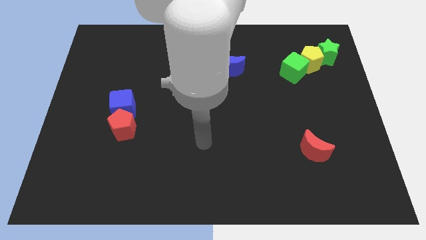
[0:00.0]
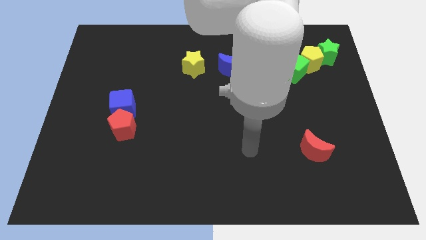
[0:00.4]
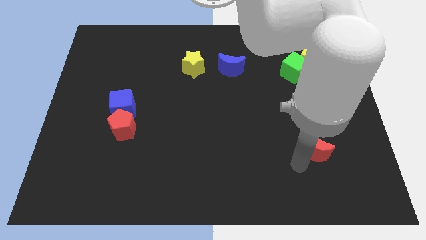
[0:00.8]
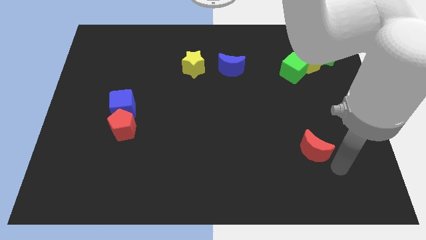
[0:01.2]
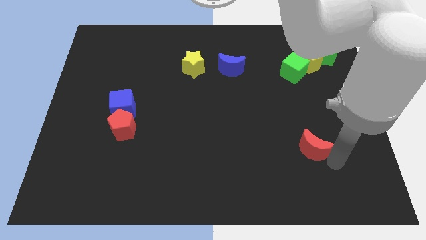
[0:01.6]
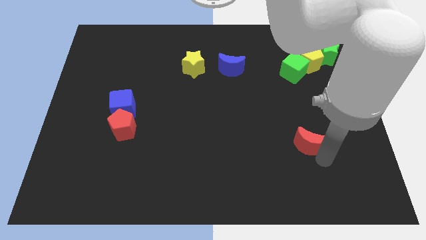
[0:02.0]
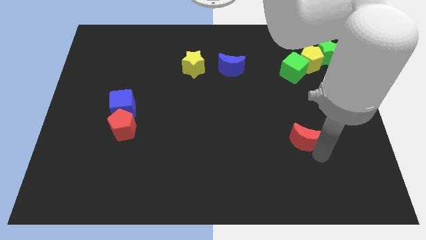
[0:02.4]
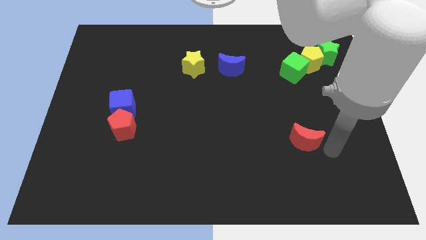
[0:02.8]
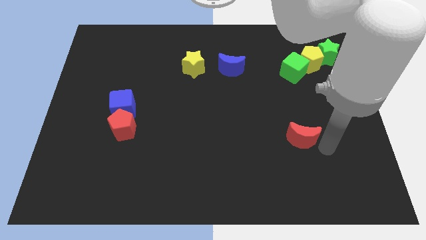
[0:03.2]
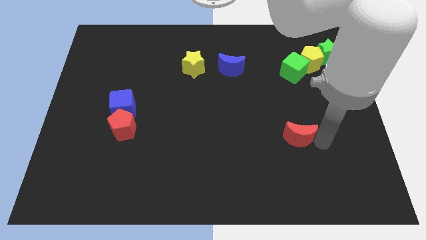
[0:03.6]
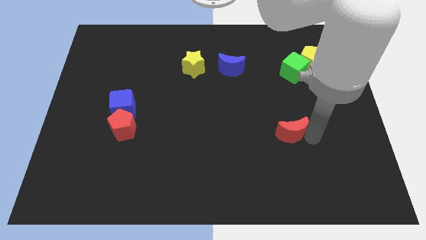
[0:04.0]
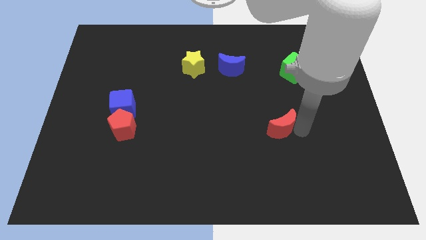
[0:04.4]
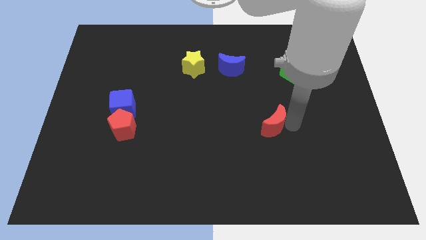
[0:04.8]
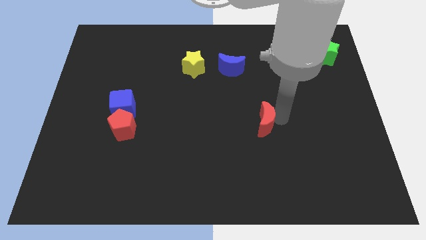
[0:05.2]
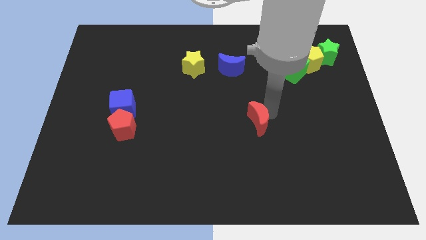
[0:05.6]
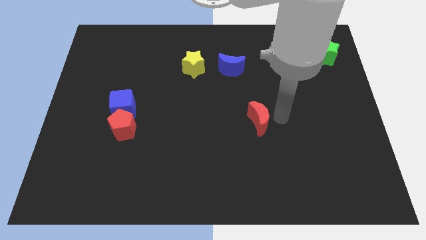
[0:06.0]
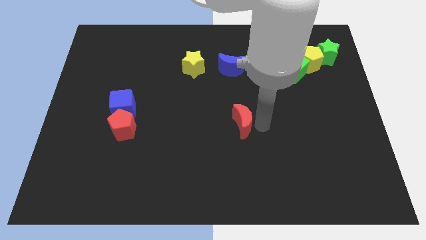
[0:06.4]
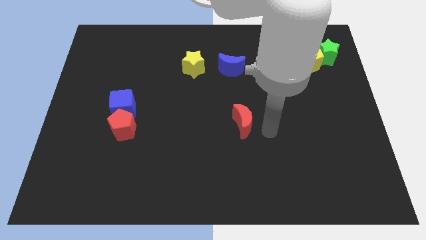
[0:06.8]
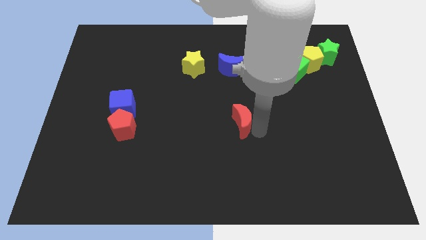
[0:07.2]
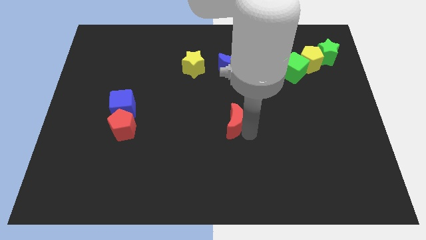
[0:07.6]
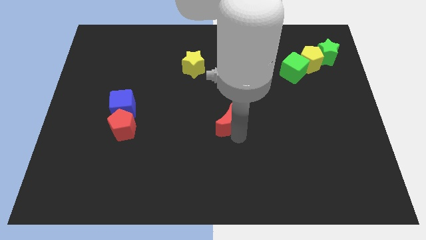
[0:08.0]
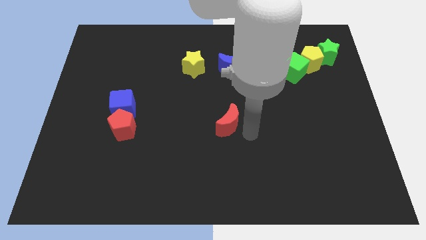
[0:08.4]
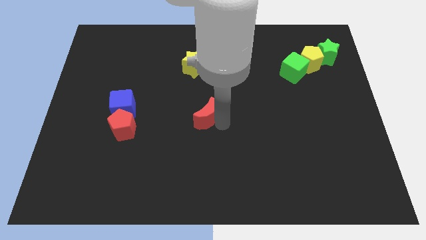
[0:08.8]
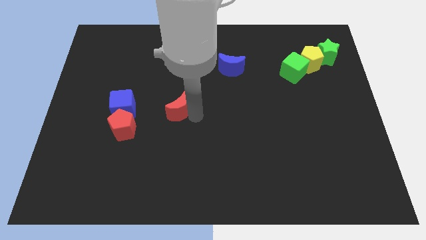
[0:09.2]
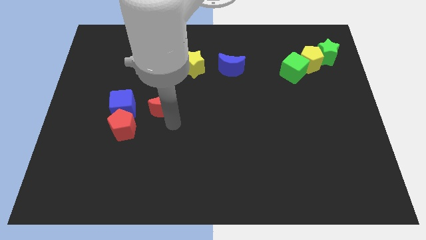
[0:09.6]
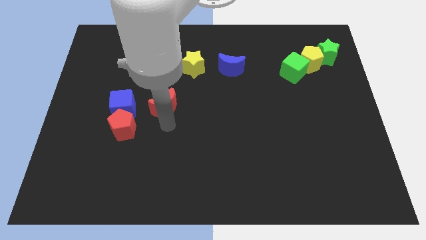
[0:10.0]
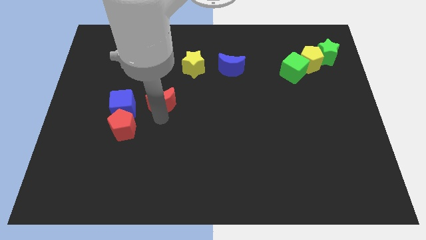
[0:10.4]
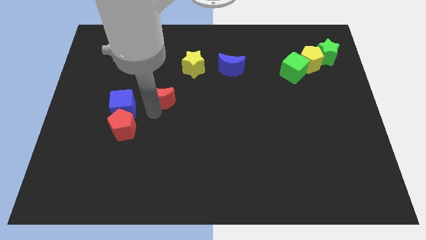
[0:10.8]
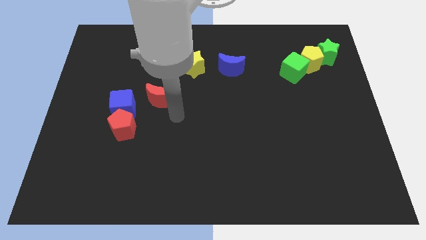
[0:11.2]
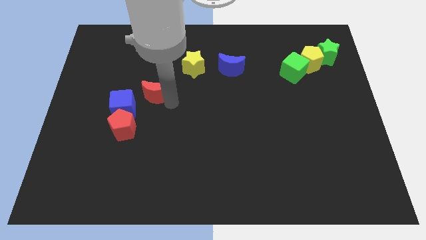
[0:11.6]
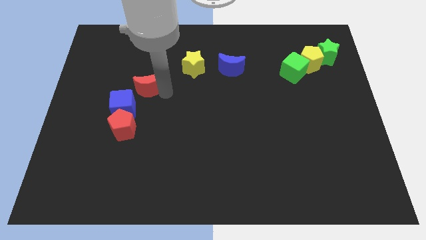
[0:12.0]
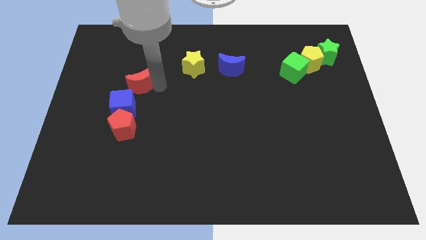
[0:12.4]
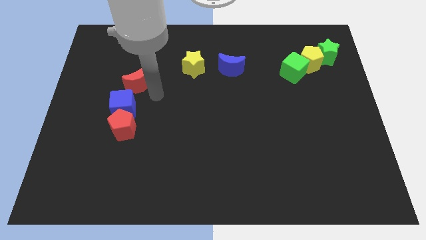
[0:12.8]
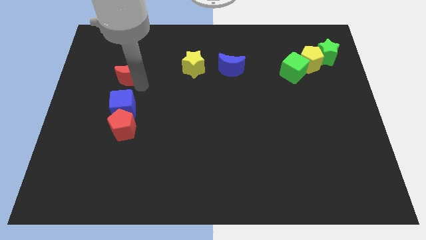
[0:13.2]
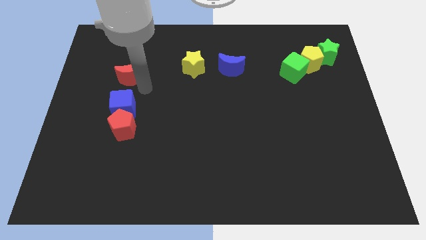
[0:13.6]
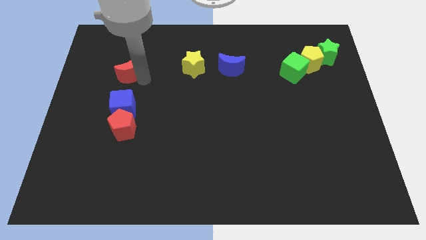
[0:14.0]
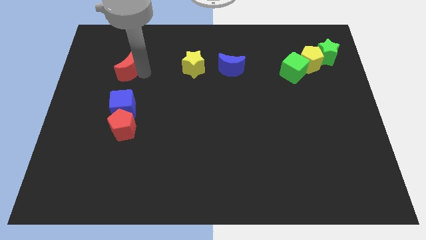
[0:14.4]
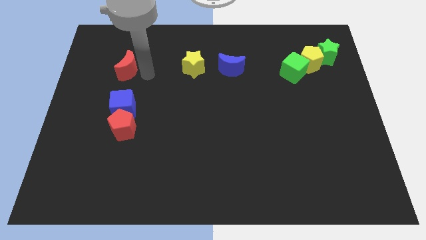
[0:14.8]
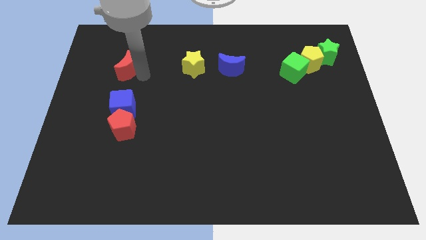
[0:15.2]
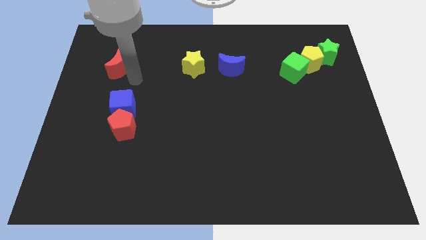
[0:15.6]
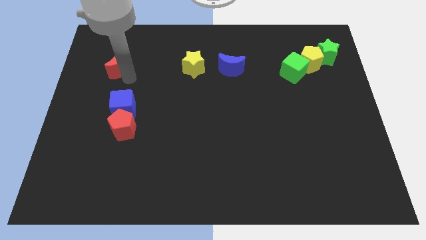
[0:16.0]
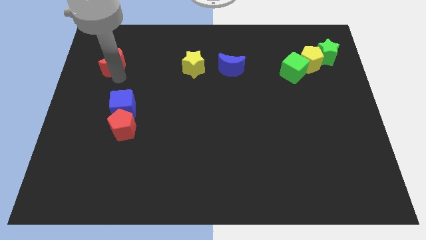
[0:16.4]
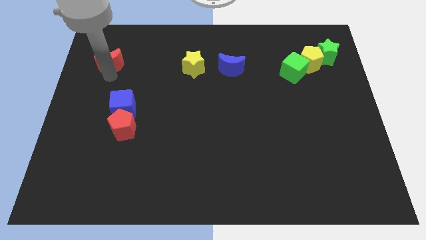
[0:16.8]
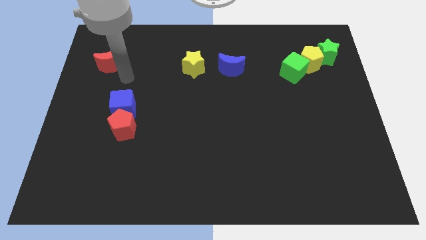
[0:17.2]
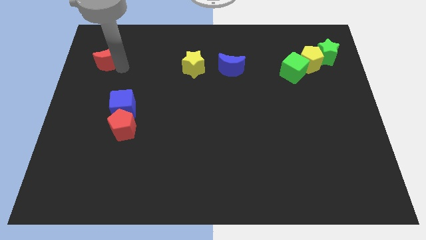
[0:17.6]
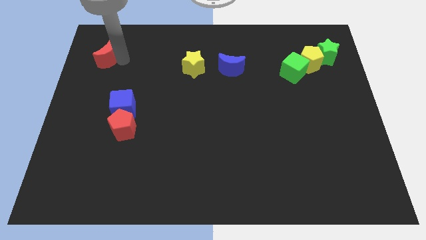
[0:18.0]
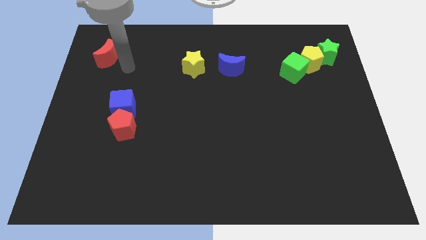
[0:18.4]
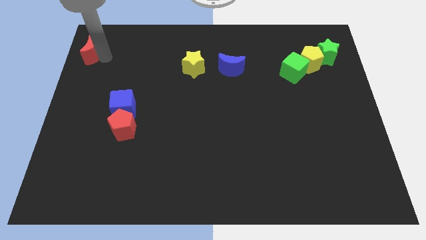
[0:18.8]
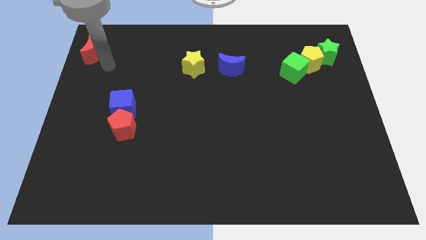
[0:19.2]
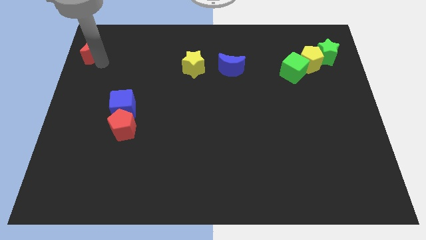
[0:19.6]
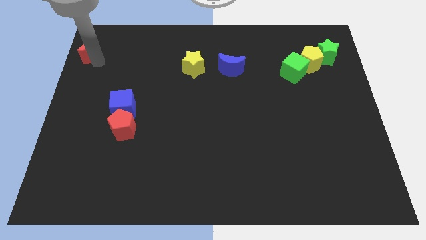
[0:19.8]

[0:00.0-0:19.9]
push the red moon to the top left

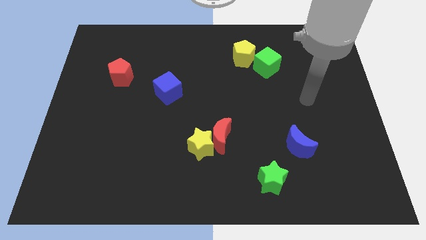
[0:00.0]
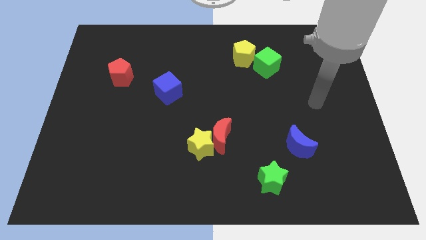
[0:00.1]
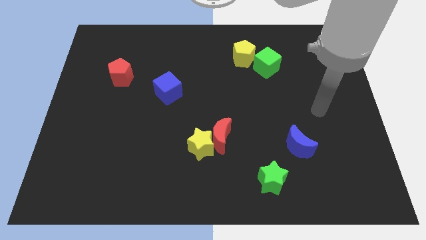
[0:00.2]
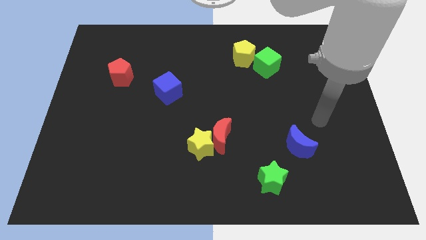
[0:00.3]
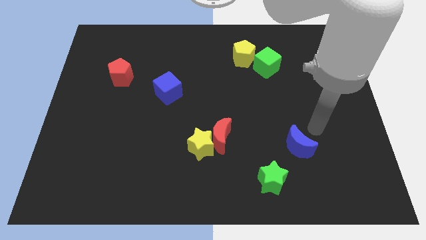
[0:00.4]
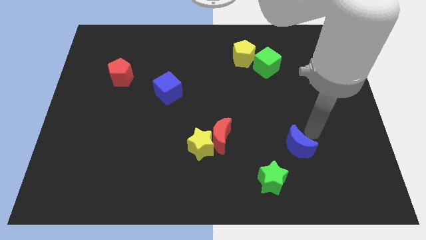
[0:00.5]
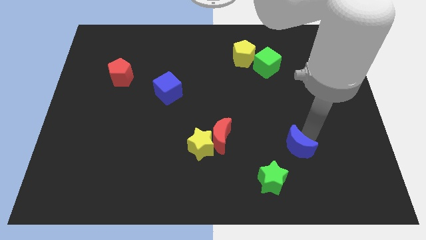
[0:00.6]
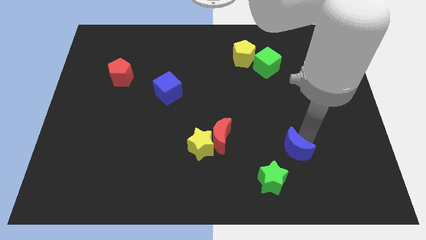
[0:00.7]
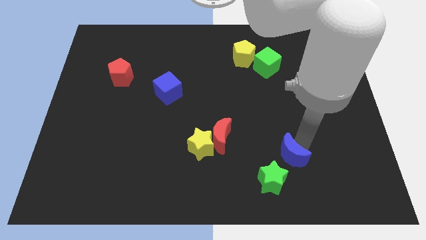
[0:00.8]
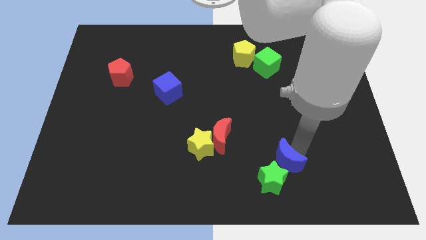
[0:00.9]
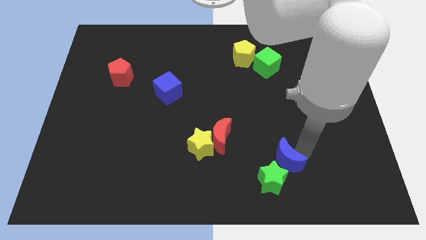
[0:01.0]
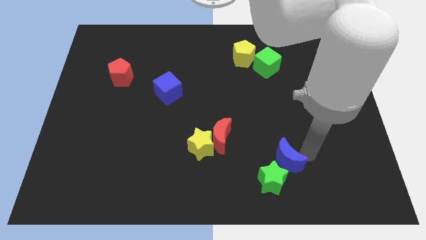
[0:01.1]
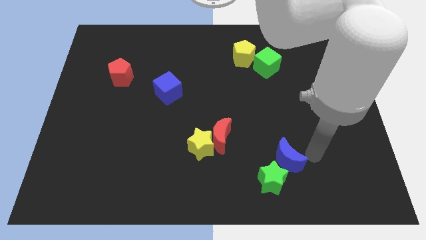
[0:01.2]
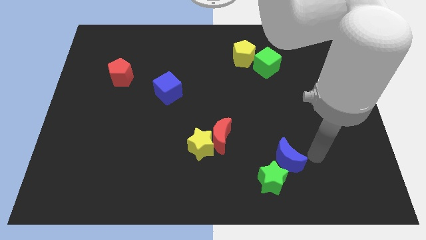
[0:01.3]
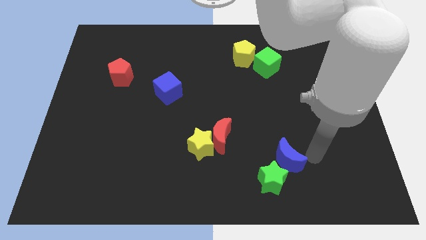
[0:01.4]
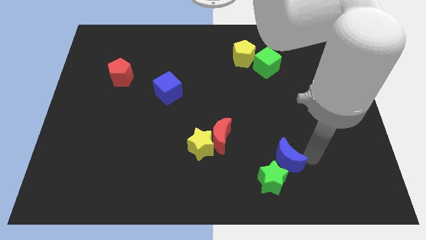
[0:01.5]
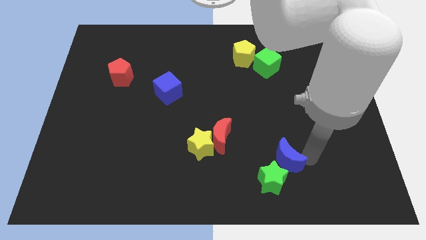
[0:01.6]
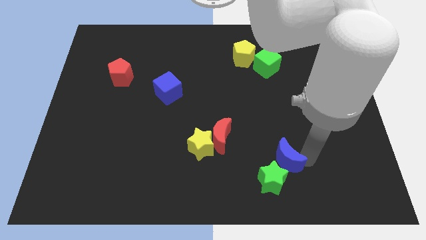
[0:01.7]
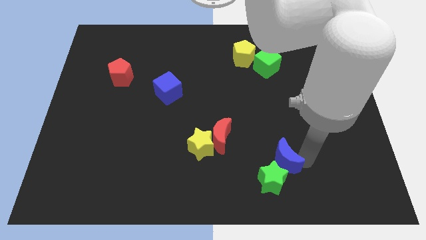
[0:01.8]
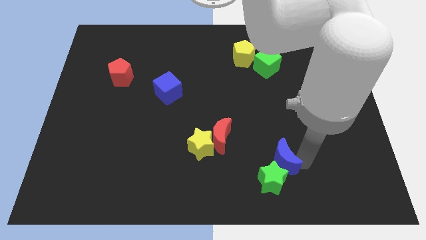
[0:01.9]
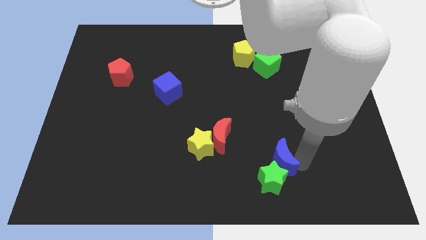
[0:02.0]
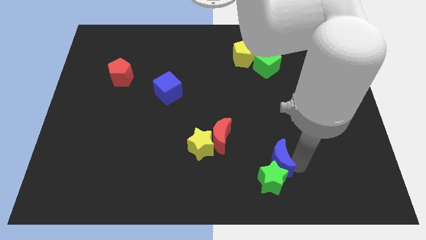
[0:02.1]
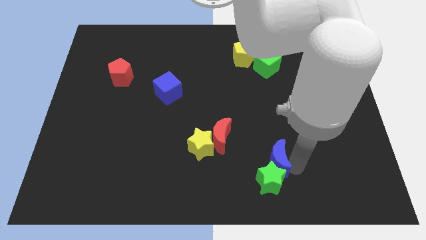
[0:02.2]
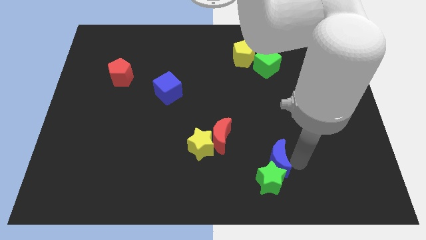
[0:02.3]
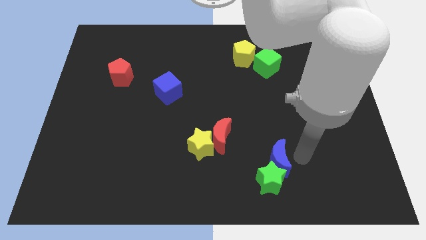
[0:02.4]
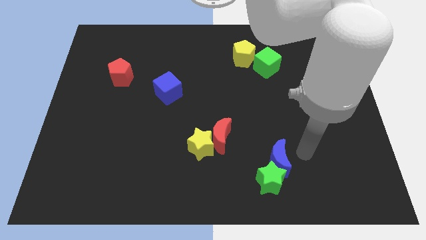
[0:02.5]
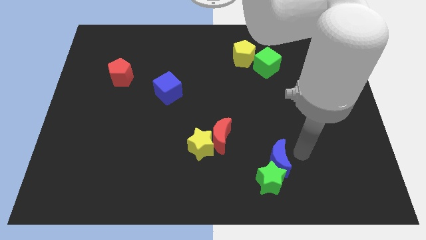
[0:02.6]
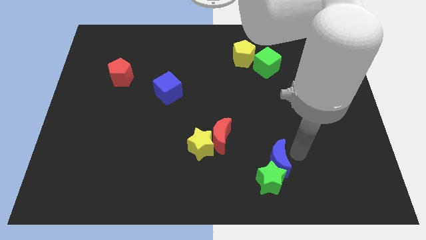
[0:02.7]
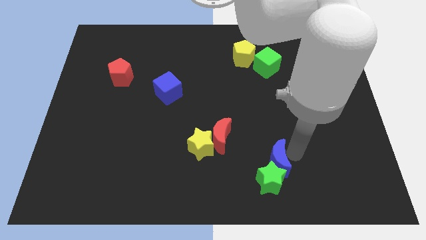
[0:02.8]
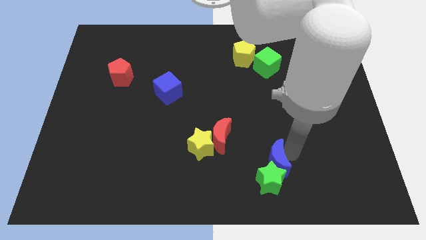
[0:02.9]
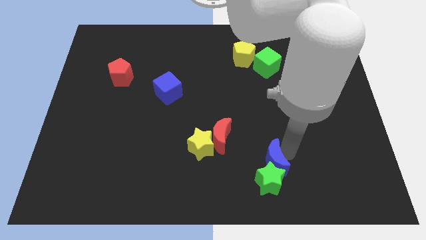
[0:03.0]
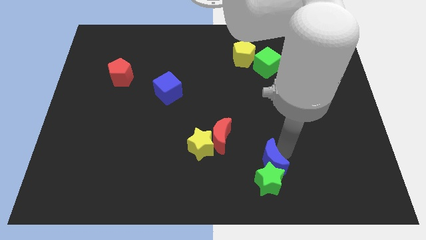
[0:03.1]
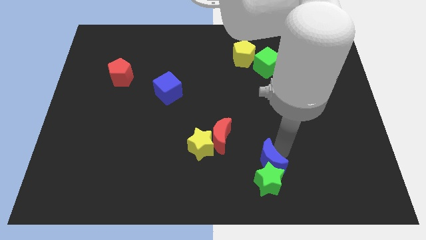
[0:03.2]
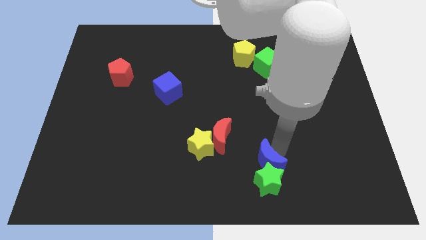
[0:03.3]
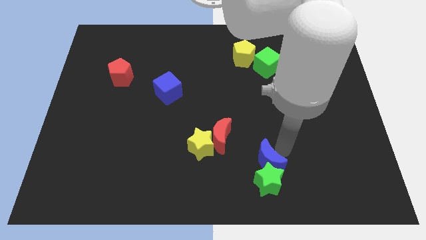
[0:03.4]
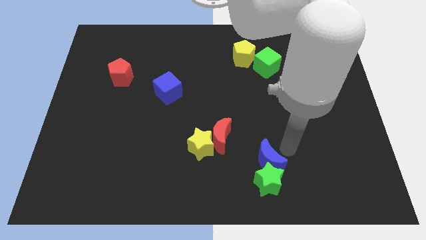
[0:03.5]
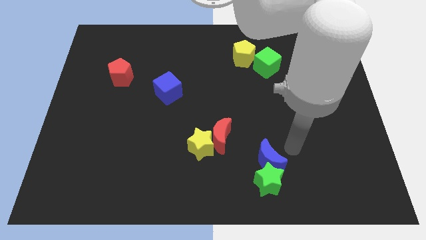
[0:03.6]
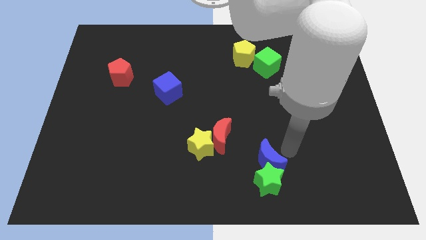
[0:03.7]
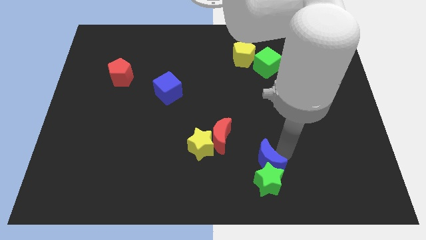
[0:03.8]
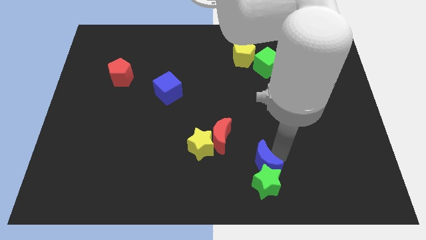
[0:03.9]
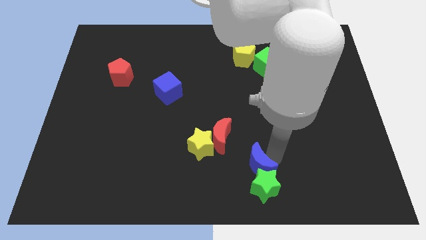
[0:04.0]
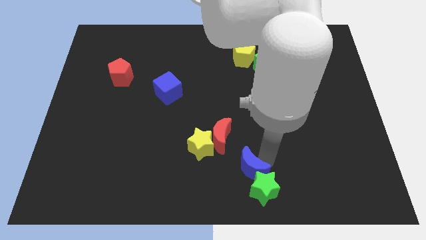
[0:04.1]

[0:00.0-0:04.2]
move the blue moon to the bottom
